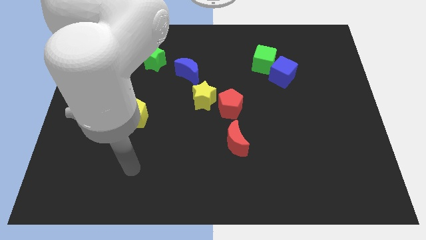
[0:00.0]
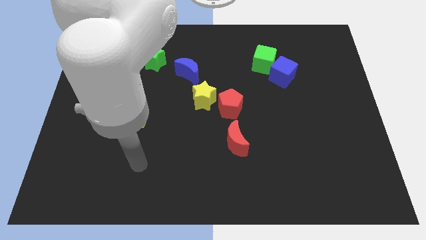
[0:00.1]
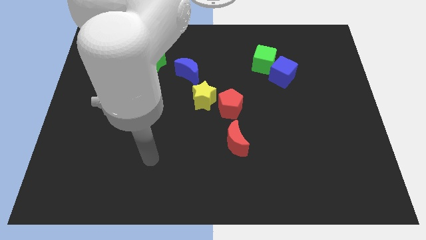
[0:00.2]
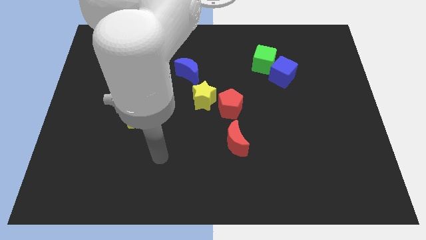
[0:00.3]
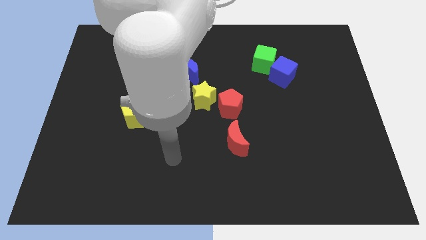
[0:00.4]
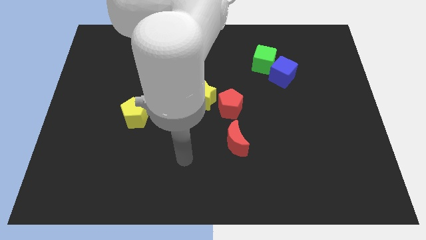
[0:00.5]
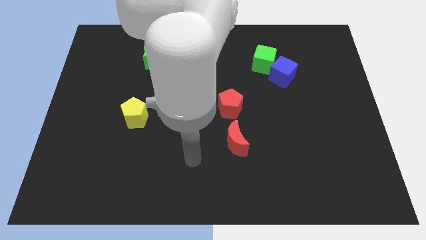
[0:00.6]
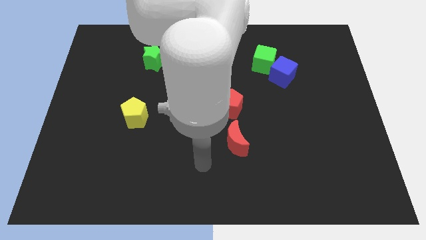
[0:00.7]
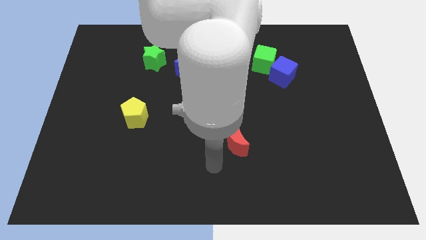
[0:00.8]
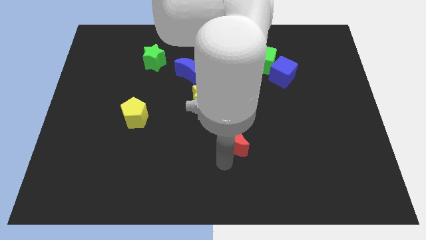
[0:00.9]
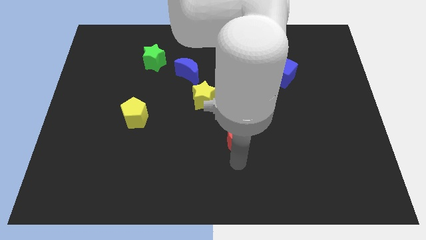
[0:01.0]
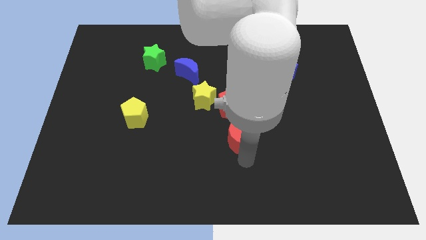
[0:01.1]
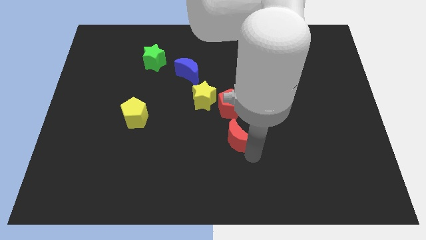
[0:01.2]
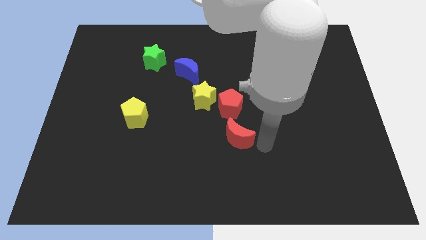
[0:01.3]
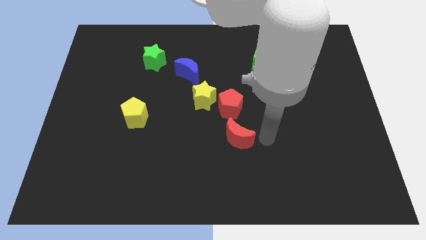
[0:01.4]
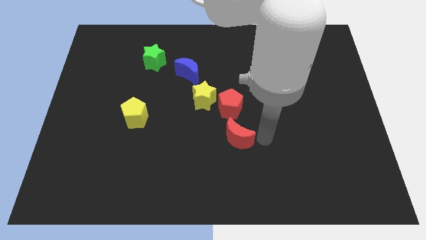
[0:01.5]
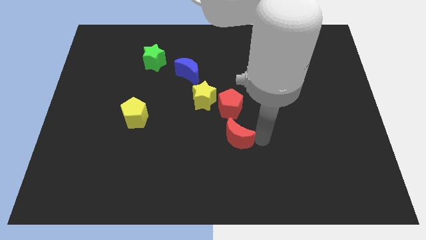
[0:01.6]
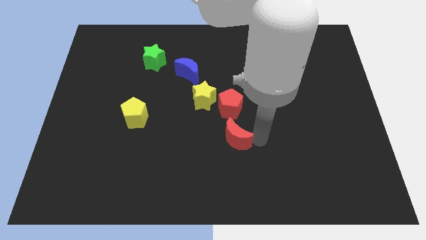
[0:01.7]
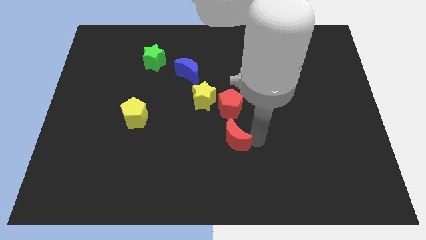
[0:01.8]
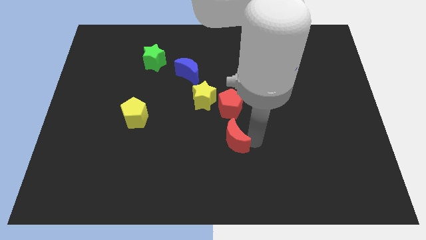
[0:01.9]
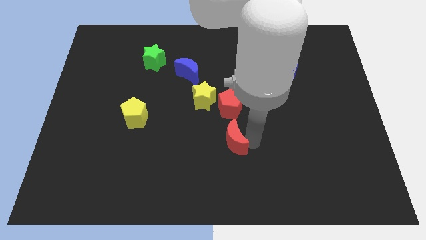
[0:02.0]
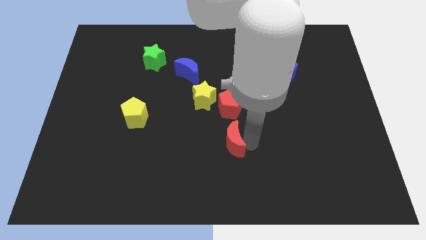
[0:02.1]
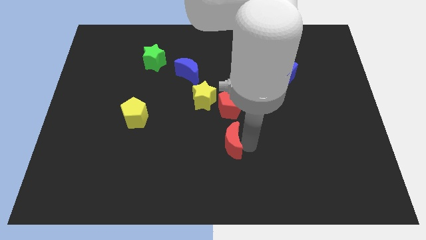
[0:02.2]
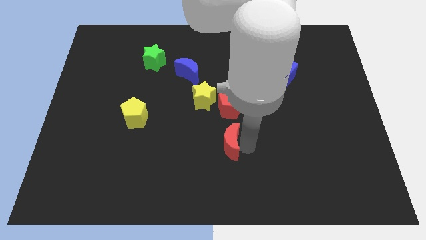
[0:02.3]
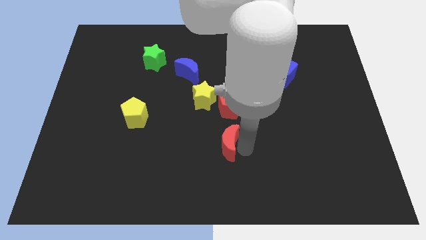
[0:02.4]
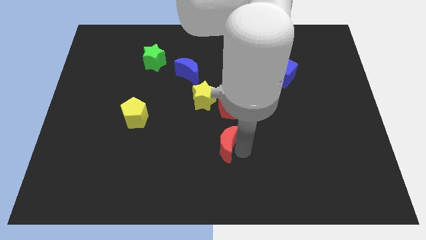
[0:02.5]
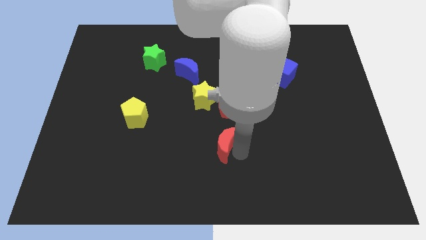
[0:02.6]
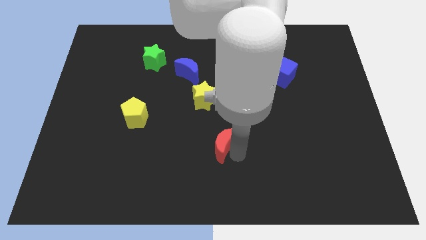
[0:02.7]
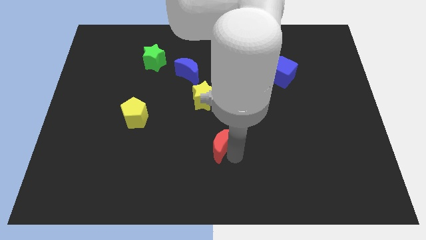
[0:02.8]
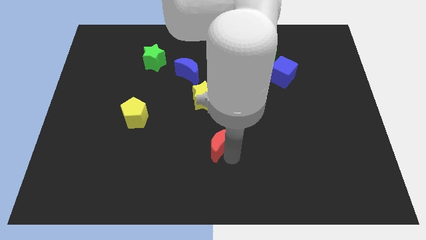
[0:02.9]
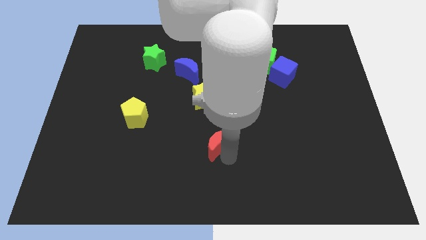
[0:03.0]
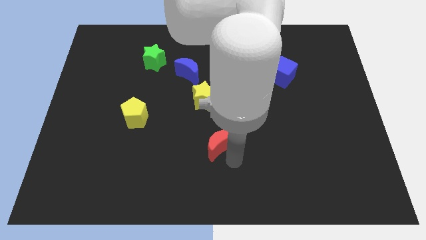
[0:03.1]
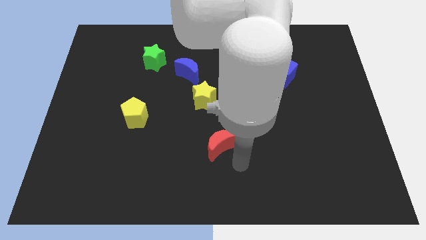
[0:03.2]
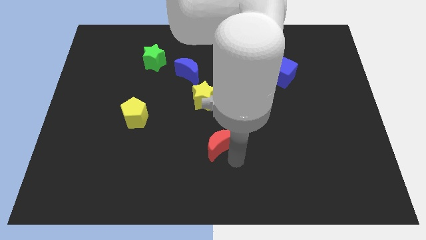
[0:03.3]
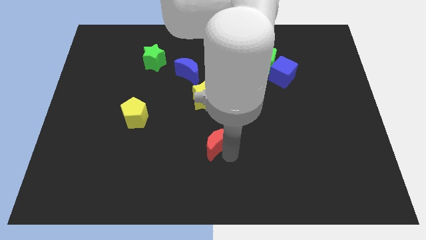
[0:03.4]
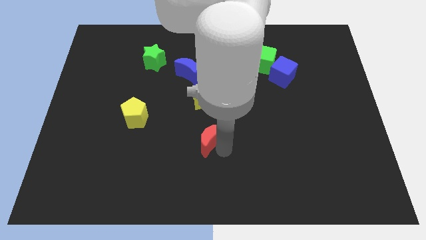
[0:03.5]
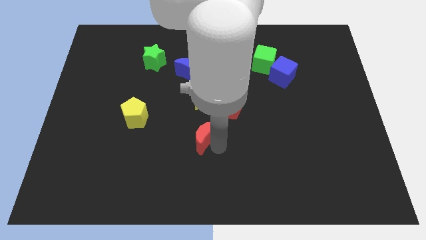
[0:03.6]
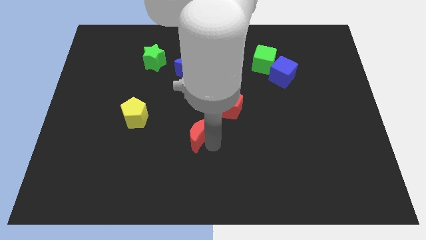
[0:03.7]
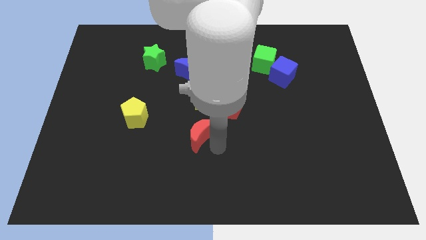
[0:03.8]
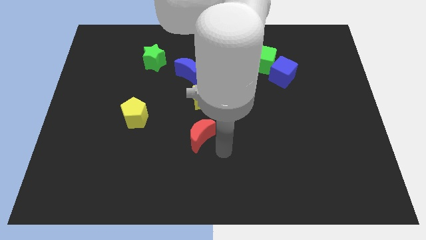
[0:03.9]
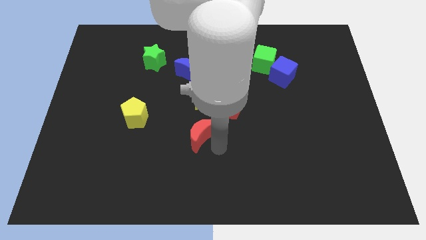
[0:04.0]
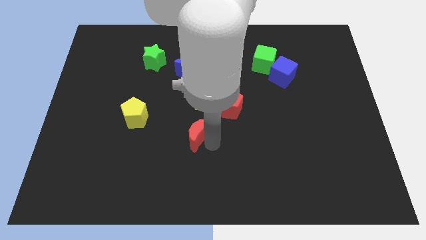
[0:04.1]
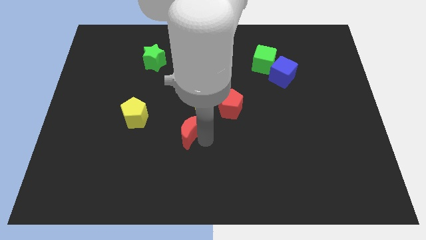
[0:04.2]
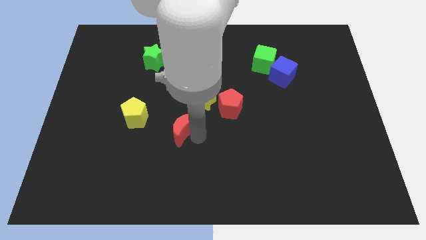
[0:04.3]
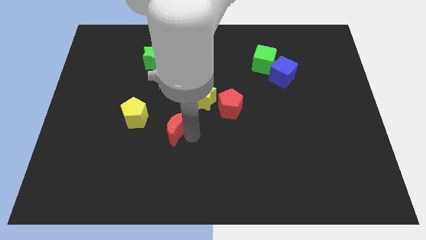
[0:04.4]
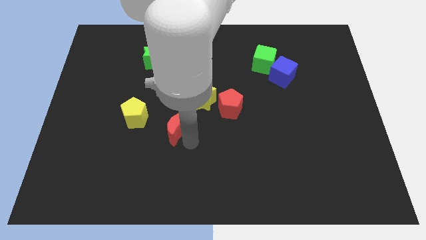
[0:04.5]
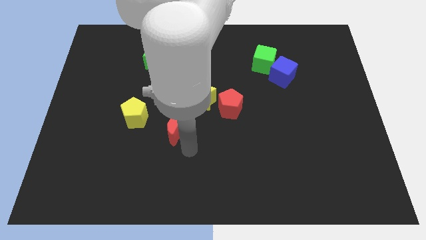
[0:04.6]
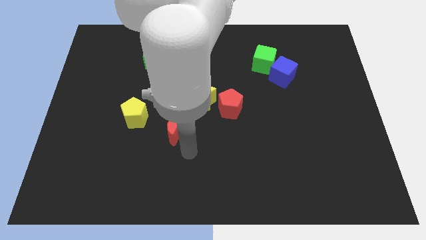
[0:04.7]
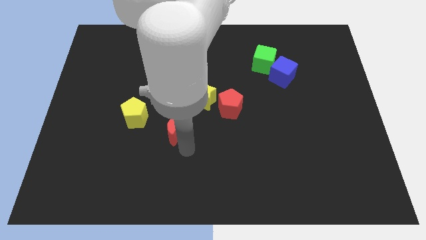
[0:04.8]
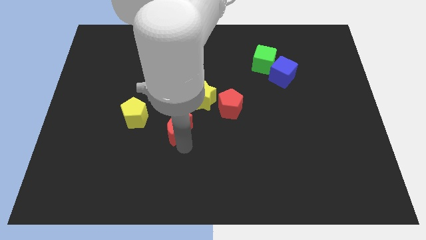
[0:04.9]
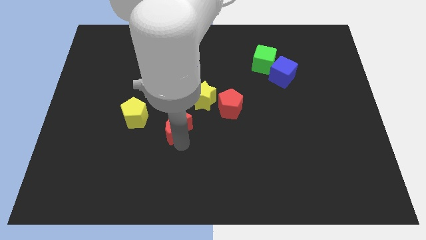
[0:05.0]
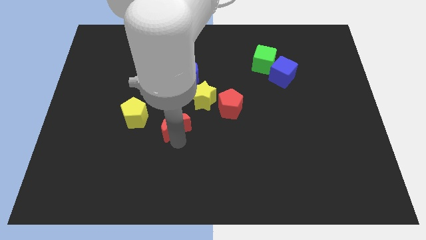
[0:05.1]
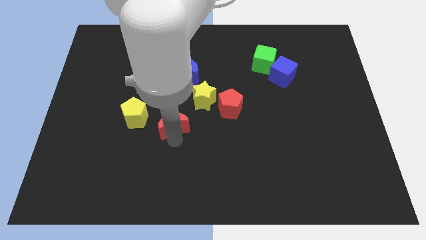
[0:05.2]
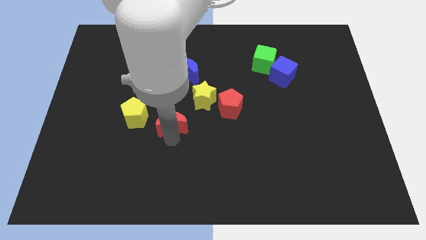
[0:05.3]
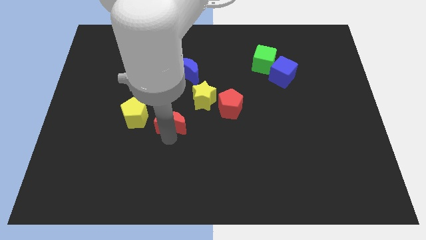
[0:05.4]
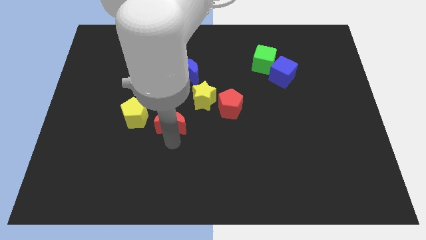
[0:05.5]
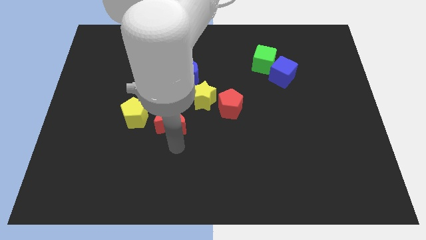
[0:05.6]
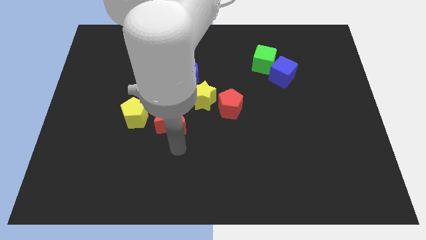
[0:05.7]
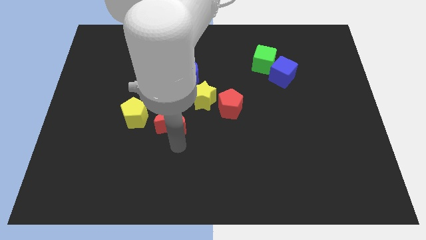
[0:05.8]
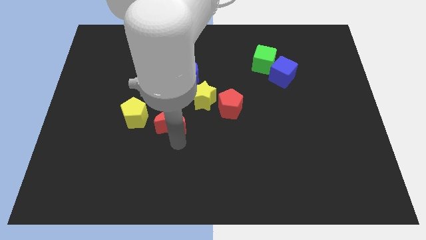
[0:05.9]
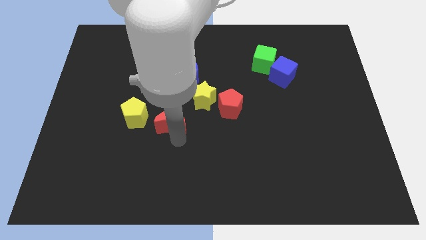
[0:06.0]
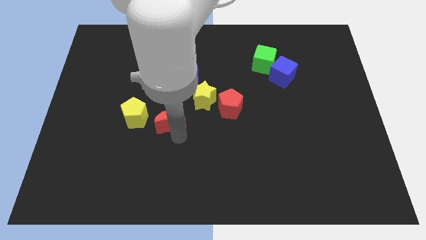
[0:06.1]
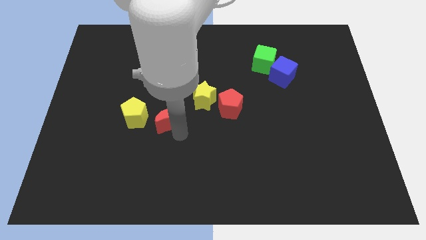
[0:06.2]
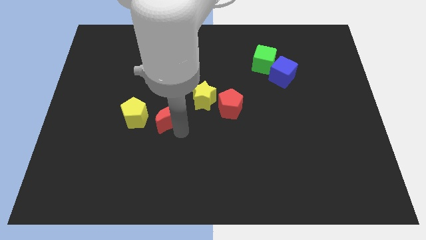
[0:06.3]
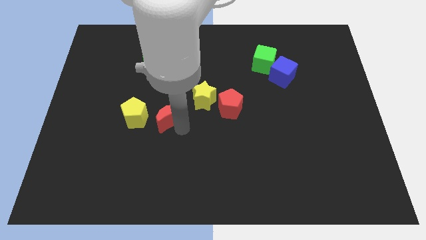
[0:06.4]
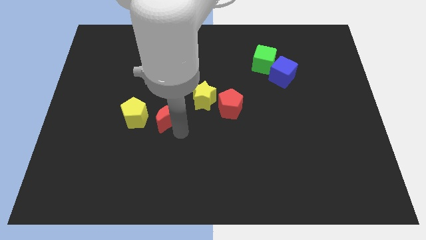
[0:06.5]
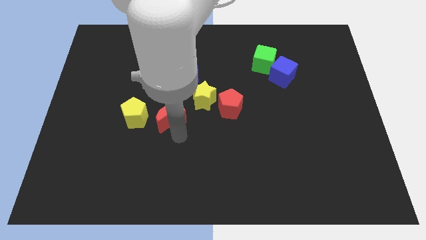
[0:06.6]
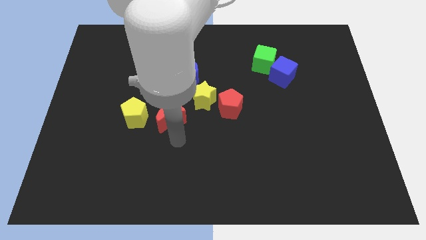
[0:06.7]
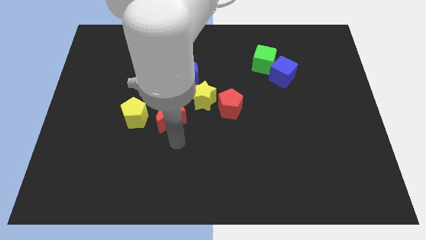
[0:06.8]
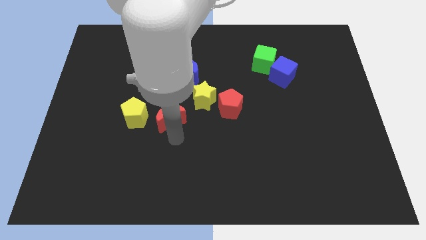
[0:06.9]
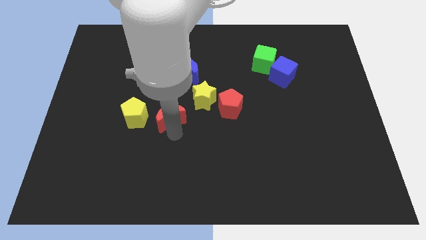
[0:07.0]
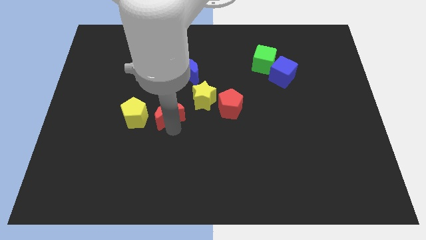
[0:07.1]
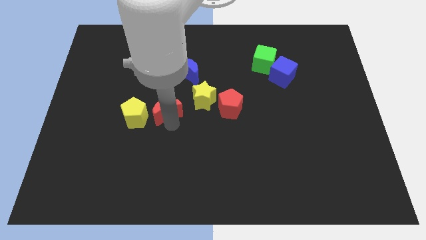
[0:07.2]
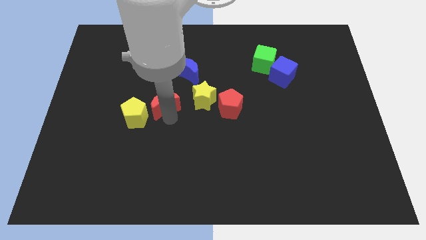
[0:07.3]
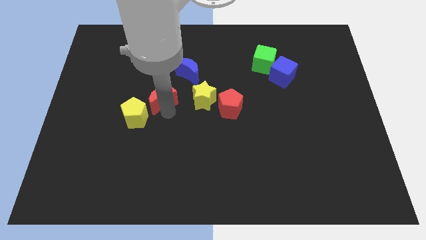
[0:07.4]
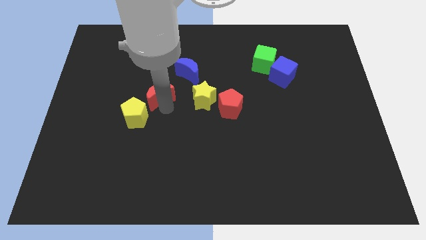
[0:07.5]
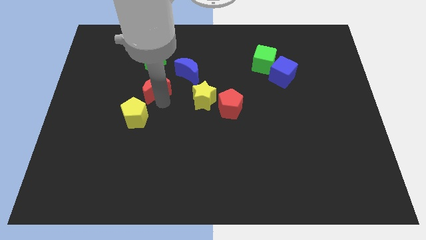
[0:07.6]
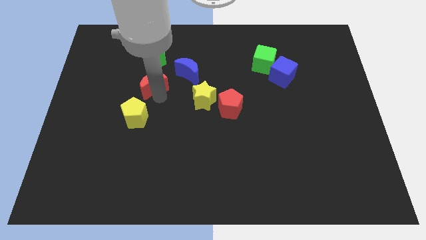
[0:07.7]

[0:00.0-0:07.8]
push the red moon left of the blue moon
